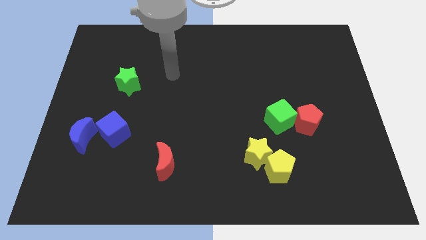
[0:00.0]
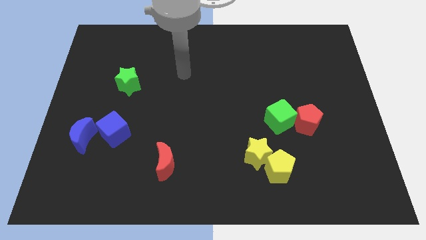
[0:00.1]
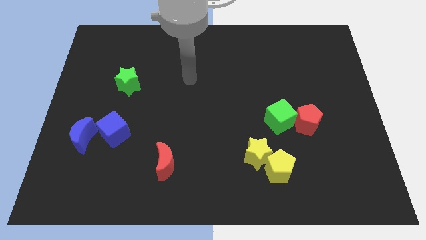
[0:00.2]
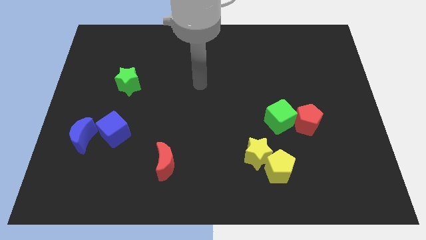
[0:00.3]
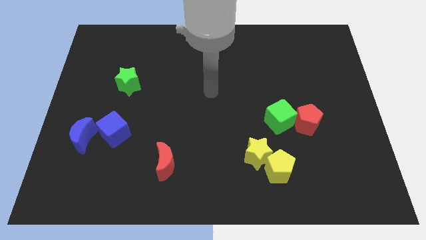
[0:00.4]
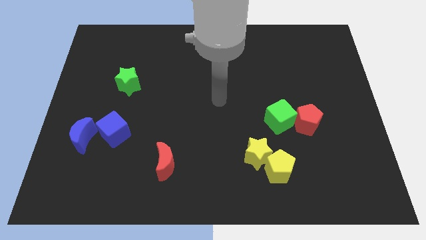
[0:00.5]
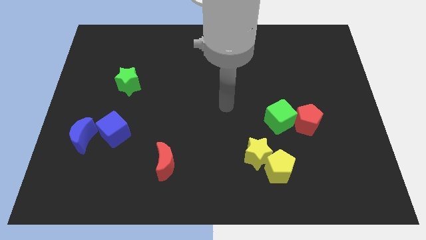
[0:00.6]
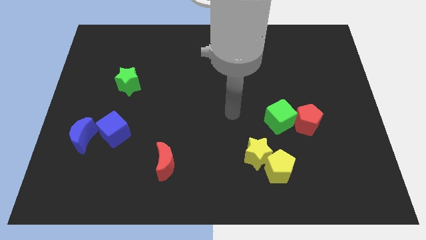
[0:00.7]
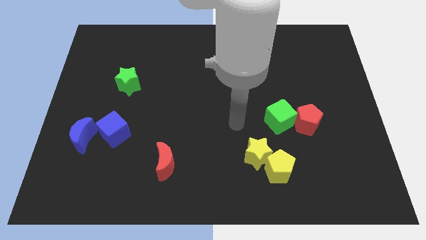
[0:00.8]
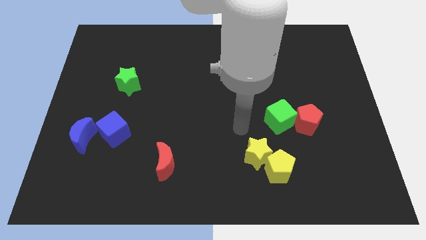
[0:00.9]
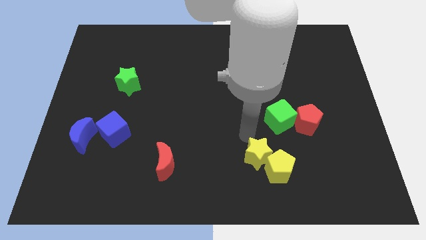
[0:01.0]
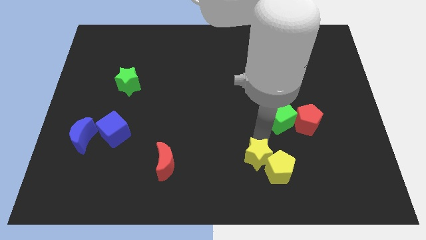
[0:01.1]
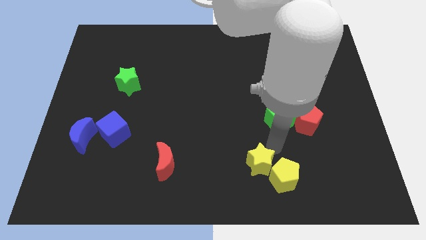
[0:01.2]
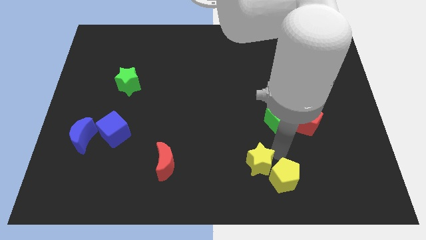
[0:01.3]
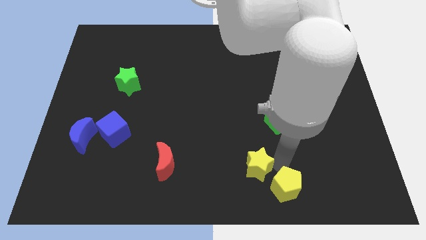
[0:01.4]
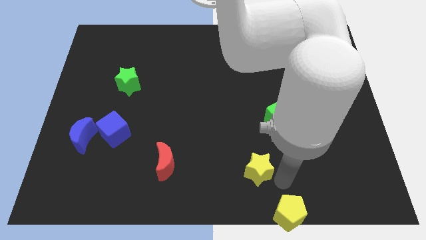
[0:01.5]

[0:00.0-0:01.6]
separate the yellow star from the yellow pentagon

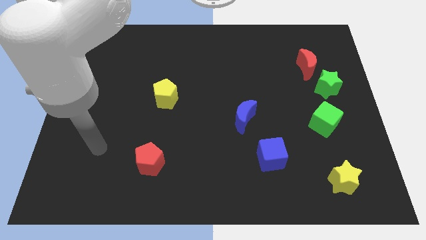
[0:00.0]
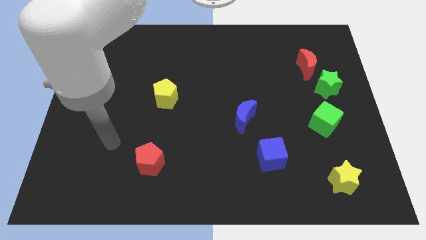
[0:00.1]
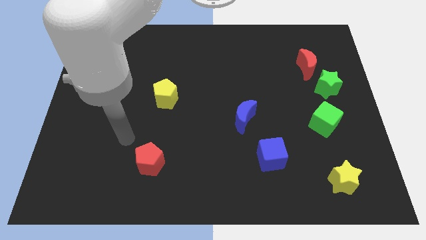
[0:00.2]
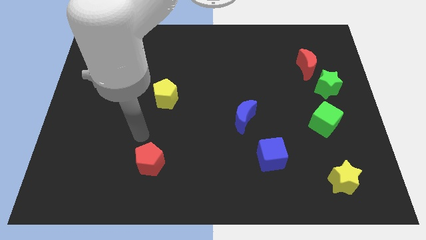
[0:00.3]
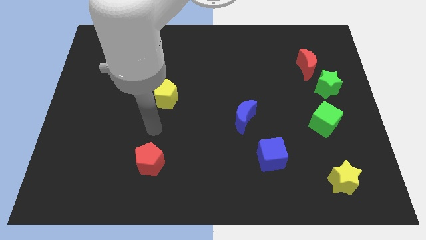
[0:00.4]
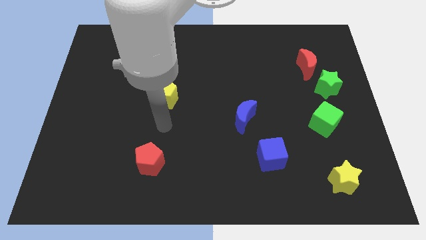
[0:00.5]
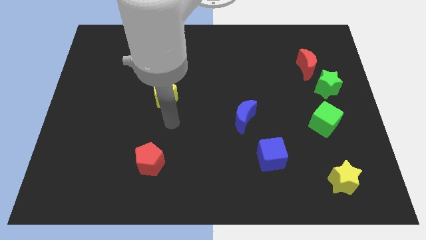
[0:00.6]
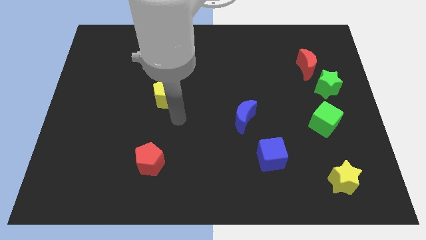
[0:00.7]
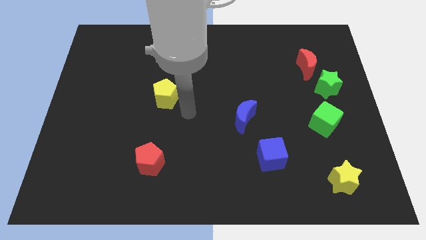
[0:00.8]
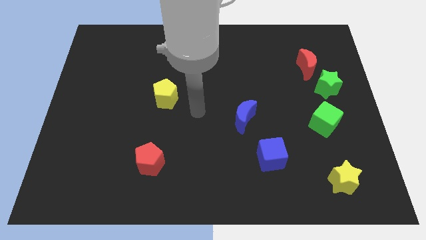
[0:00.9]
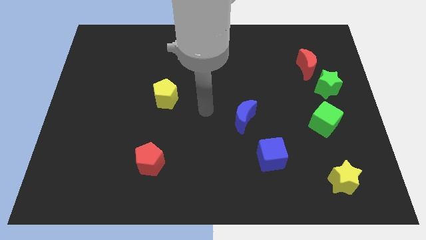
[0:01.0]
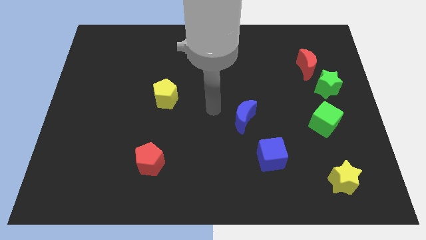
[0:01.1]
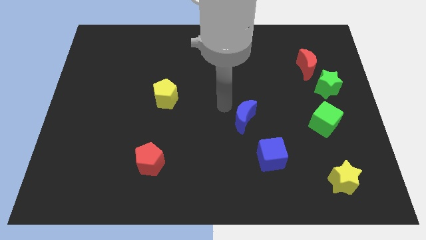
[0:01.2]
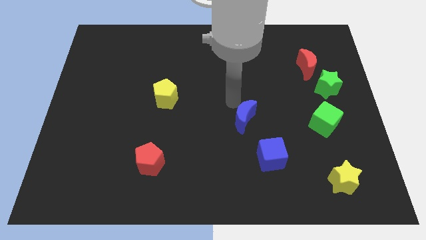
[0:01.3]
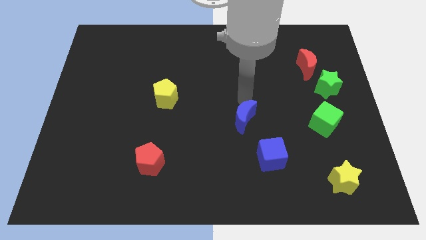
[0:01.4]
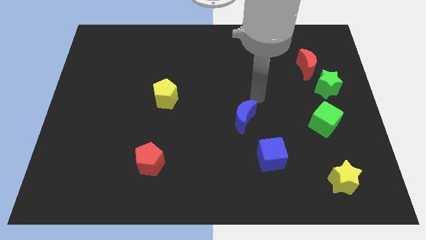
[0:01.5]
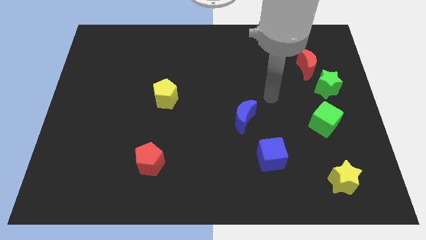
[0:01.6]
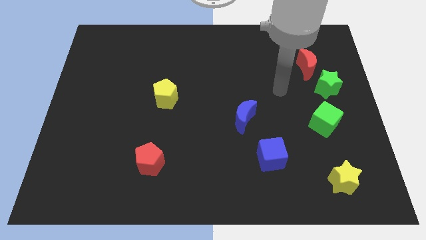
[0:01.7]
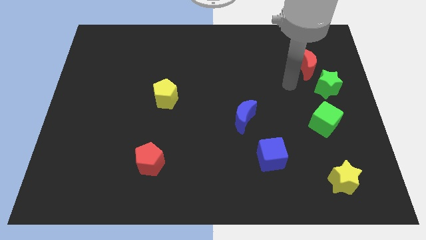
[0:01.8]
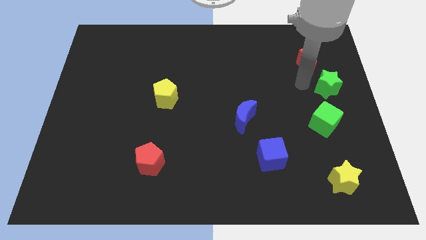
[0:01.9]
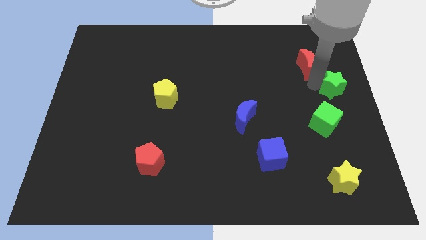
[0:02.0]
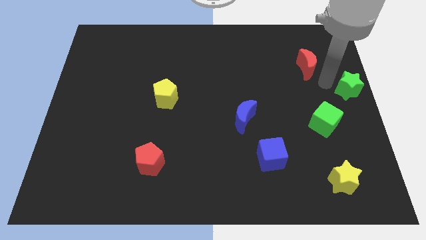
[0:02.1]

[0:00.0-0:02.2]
pull the red moon apart from the green star

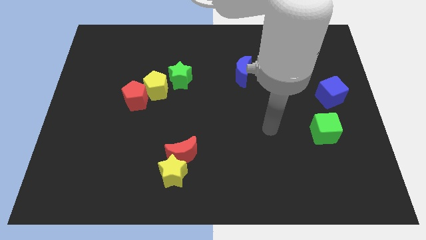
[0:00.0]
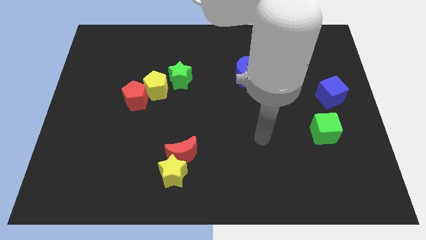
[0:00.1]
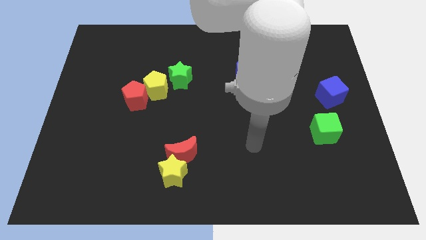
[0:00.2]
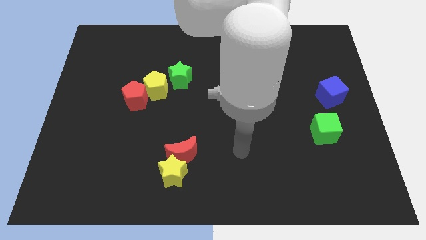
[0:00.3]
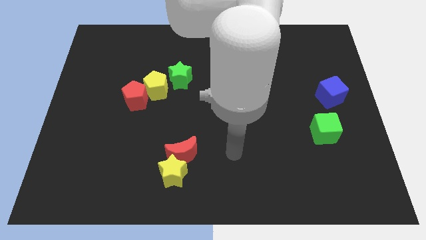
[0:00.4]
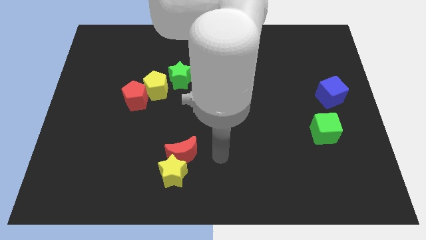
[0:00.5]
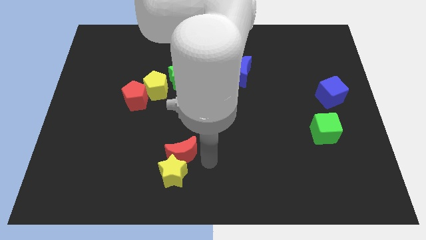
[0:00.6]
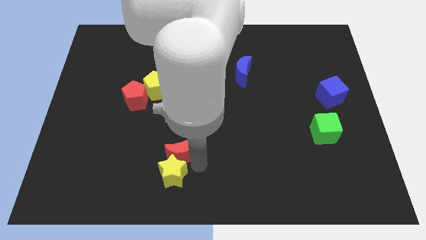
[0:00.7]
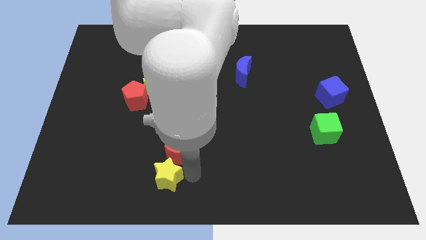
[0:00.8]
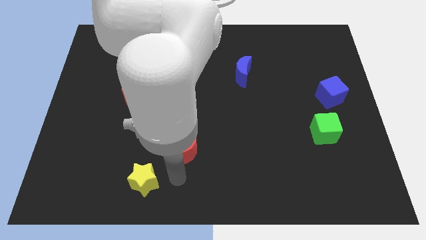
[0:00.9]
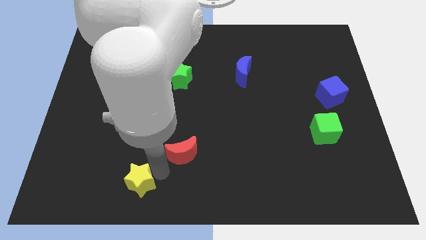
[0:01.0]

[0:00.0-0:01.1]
move the red moon away from the yellow star

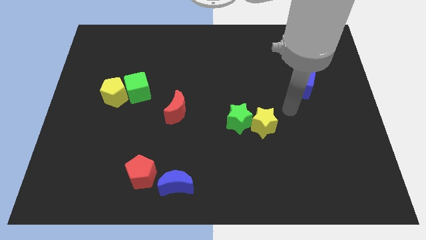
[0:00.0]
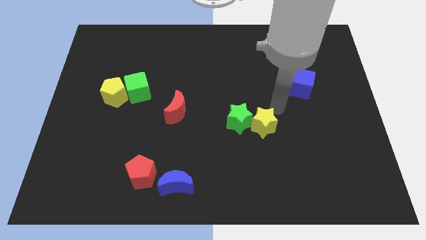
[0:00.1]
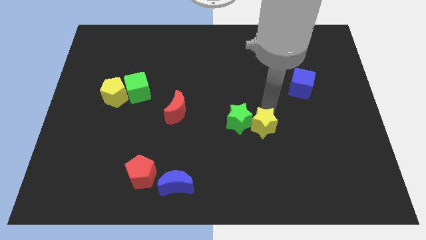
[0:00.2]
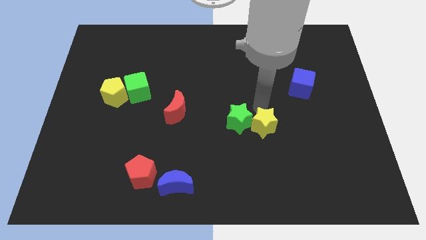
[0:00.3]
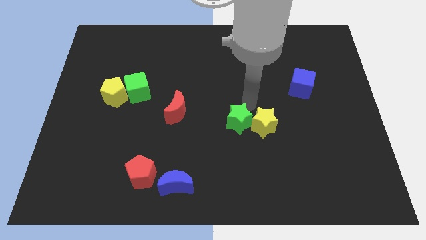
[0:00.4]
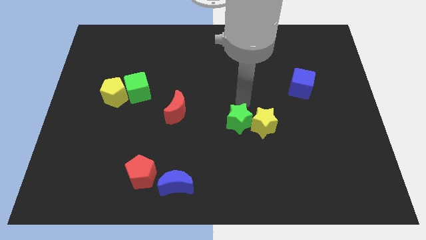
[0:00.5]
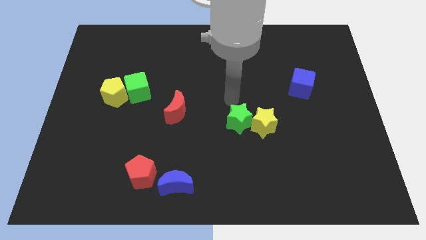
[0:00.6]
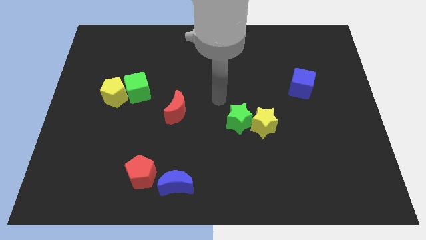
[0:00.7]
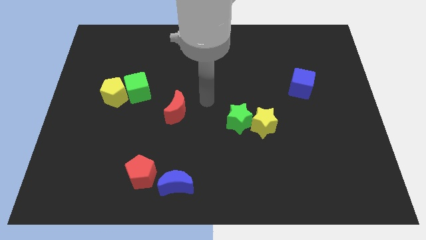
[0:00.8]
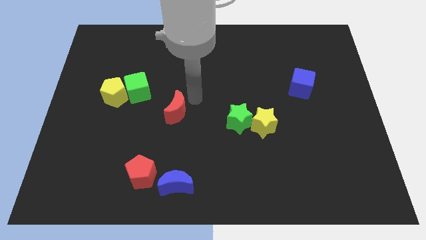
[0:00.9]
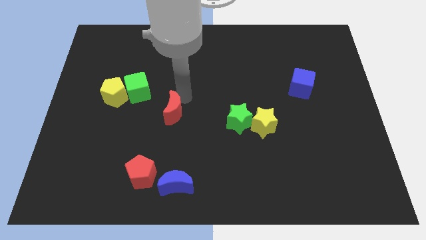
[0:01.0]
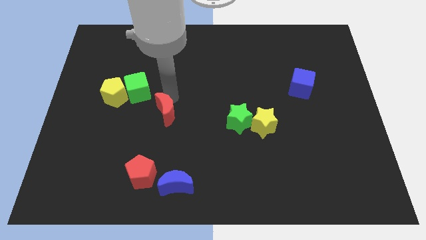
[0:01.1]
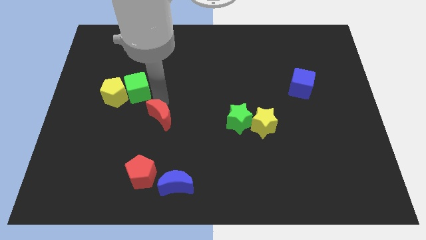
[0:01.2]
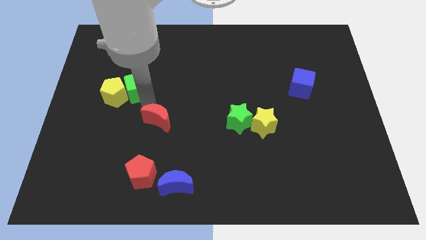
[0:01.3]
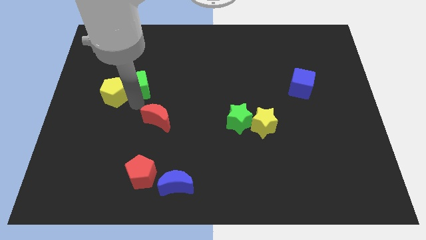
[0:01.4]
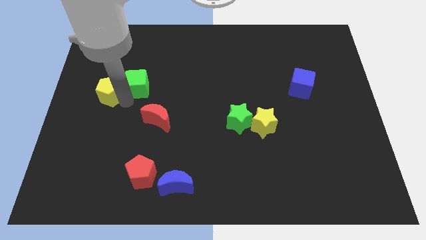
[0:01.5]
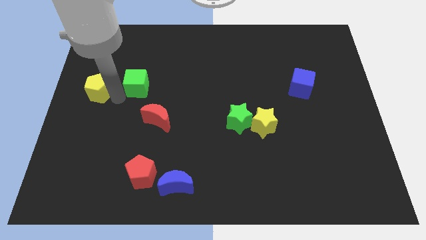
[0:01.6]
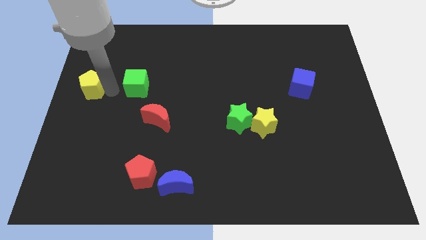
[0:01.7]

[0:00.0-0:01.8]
pull the green cube apart from the yellow pentagon

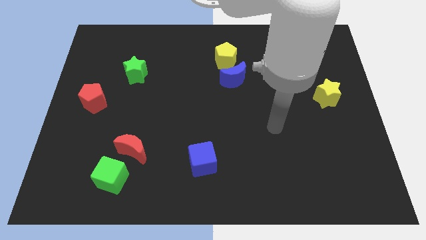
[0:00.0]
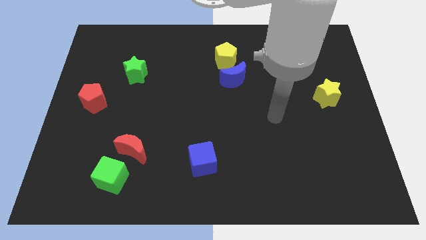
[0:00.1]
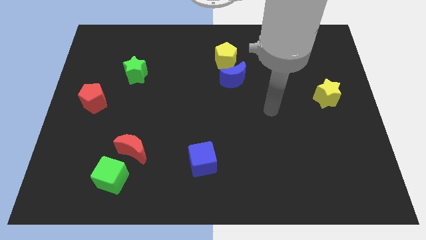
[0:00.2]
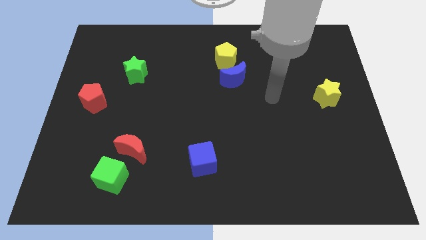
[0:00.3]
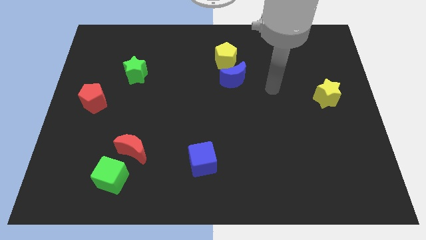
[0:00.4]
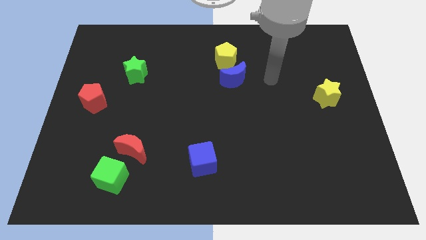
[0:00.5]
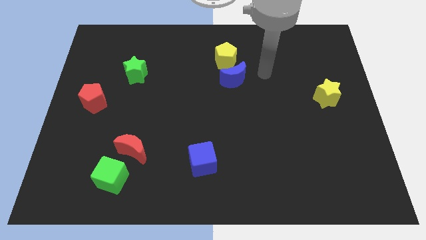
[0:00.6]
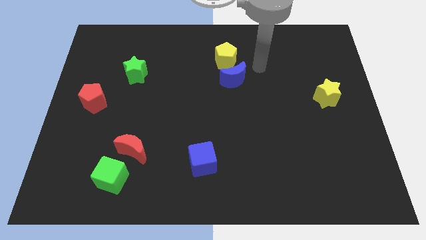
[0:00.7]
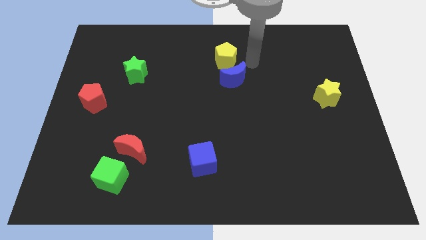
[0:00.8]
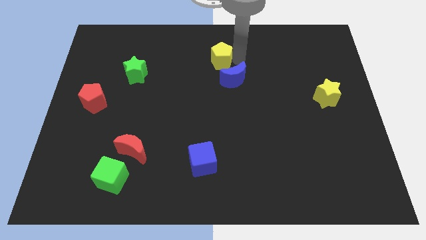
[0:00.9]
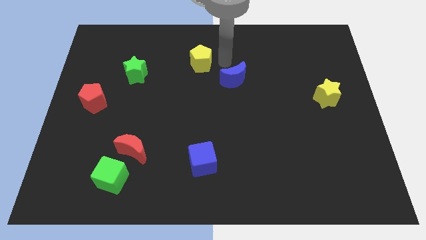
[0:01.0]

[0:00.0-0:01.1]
pull the blue moon apart from the yellow pentagon

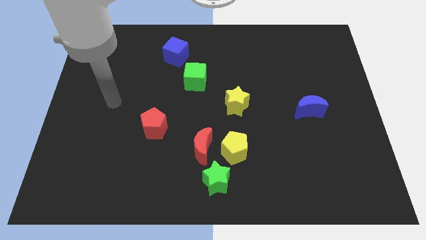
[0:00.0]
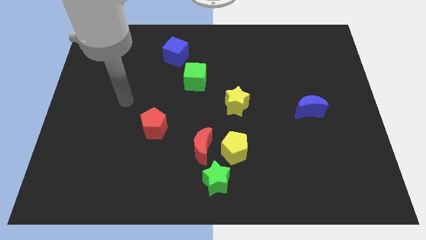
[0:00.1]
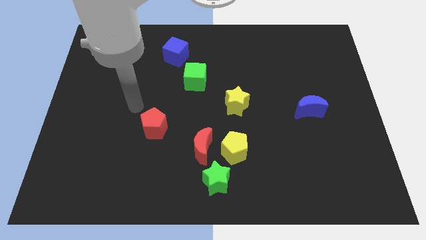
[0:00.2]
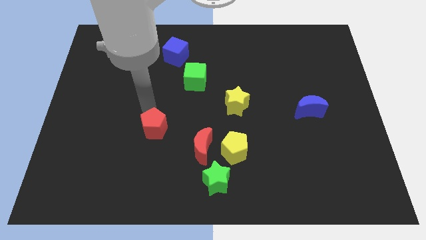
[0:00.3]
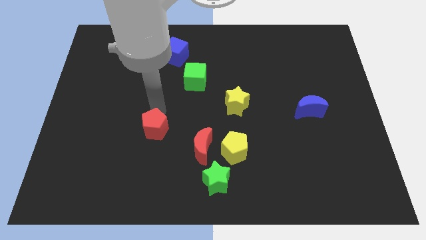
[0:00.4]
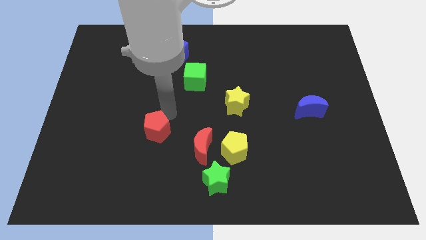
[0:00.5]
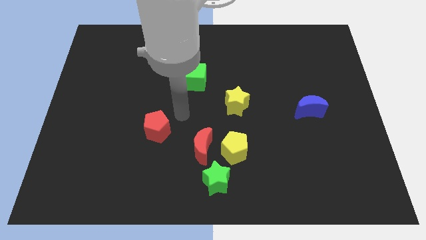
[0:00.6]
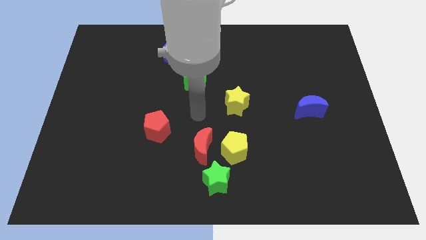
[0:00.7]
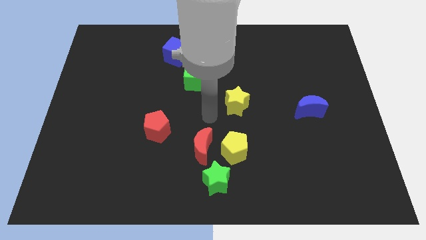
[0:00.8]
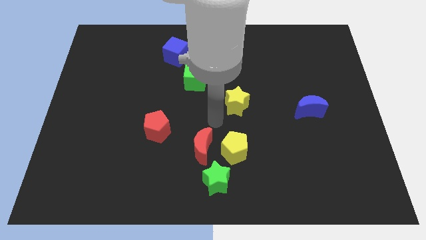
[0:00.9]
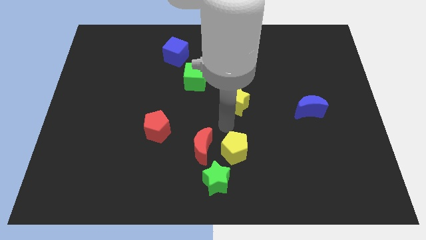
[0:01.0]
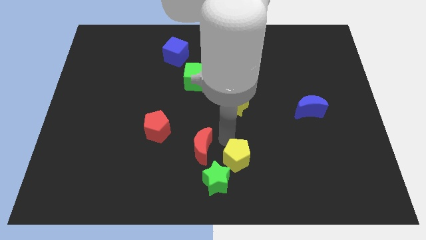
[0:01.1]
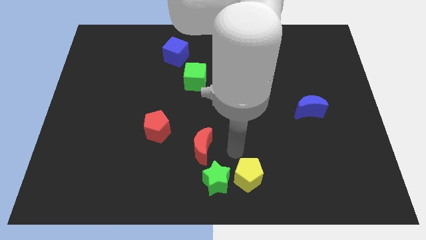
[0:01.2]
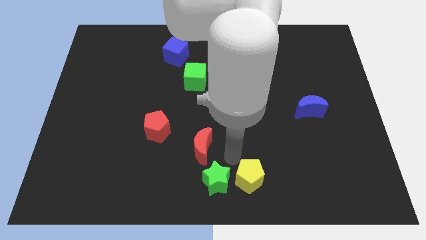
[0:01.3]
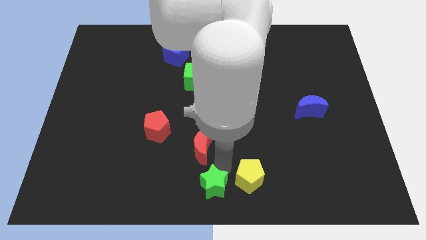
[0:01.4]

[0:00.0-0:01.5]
move the red moon away from the yellow pentagon and green star
